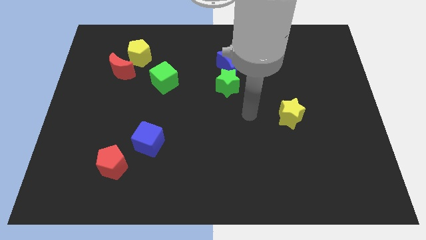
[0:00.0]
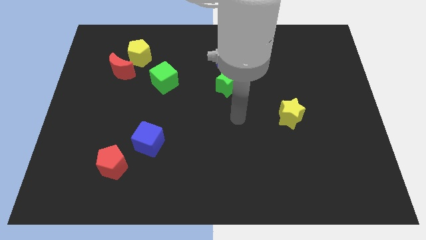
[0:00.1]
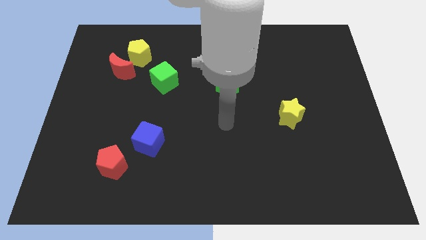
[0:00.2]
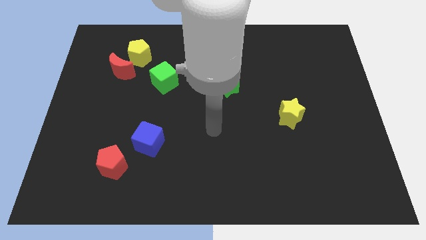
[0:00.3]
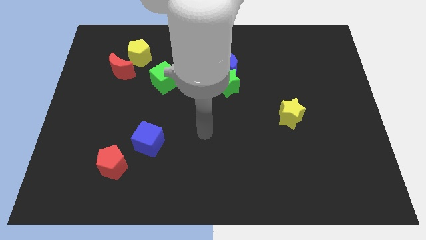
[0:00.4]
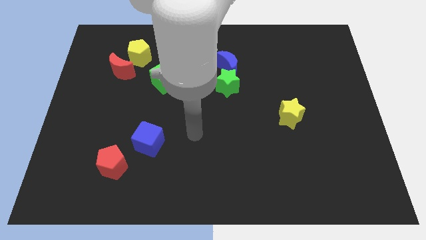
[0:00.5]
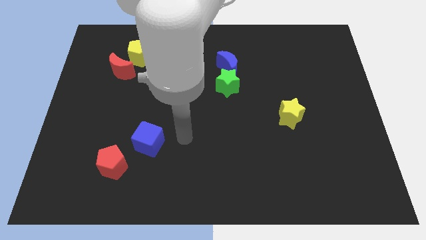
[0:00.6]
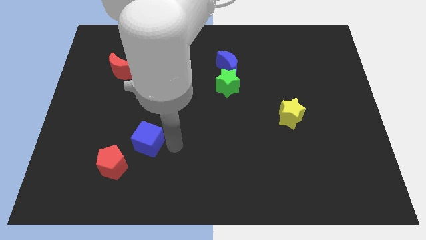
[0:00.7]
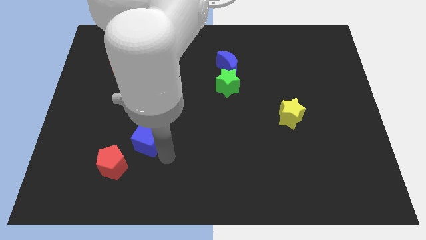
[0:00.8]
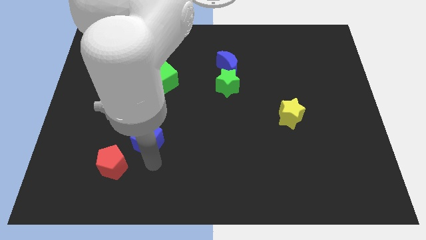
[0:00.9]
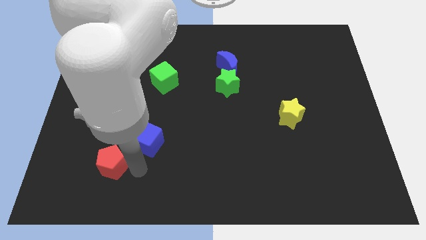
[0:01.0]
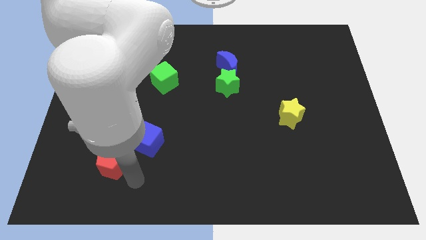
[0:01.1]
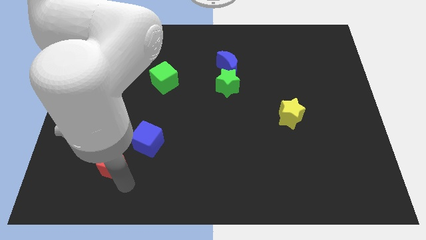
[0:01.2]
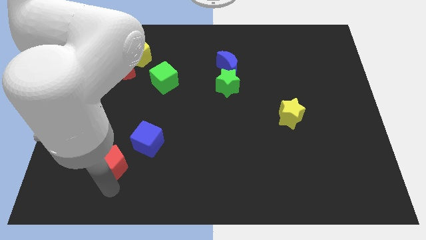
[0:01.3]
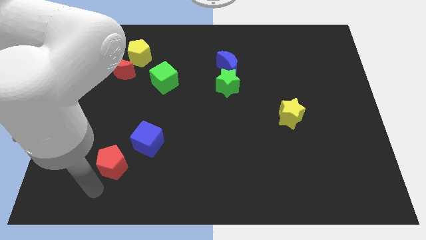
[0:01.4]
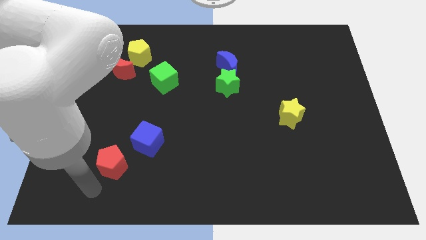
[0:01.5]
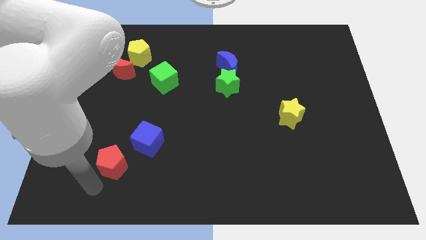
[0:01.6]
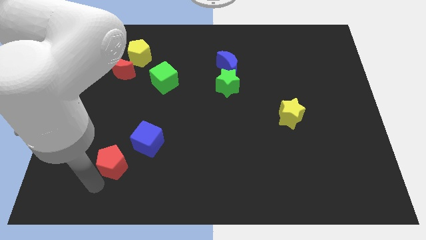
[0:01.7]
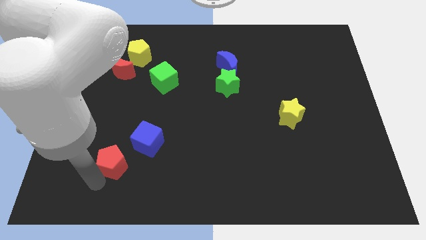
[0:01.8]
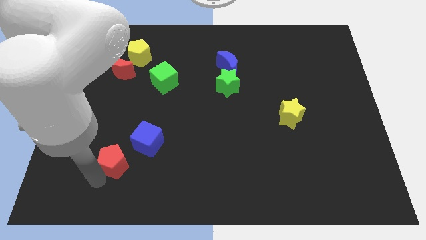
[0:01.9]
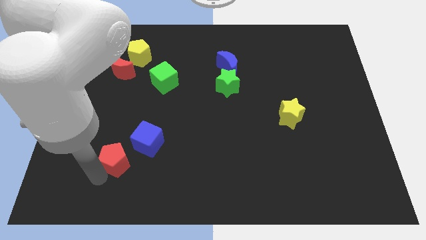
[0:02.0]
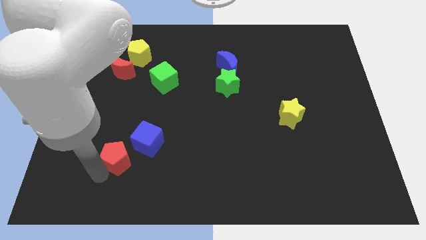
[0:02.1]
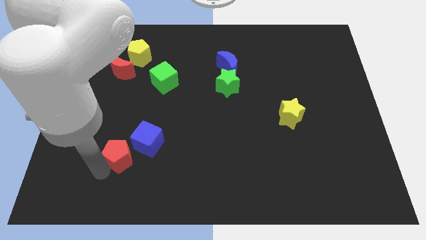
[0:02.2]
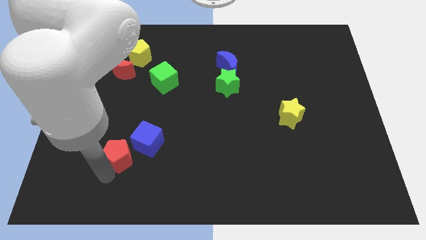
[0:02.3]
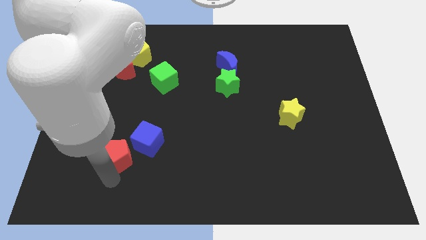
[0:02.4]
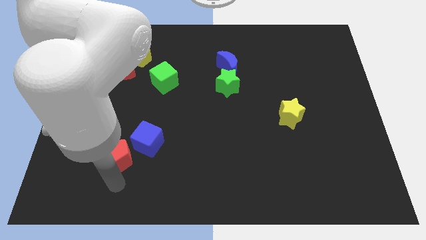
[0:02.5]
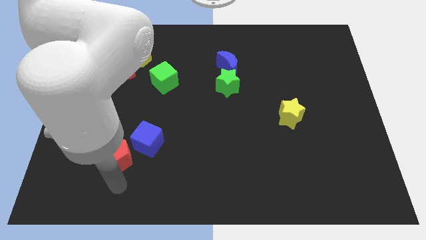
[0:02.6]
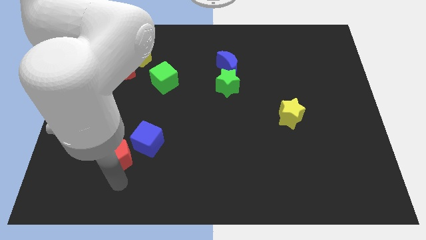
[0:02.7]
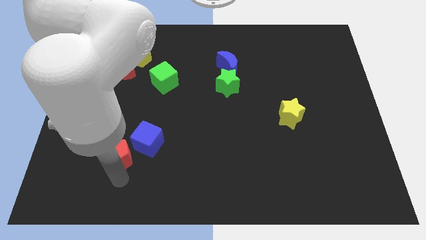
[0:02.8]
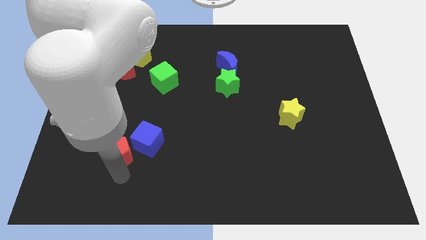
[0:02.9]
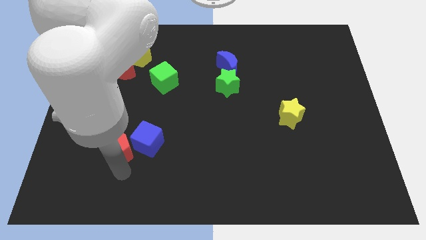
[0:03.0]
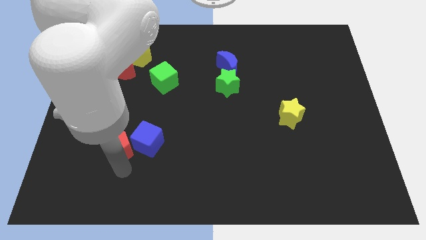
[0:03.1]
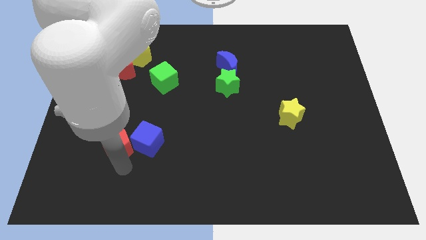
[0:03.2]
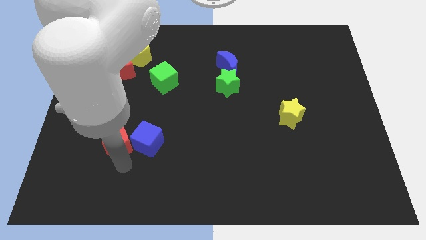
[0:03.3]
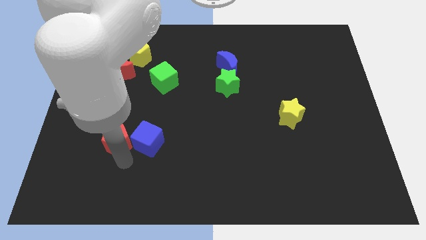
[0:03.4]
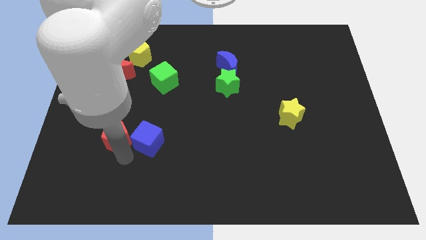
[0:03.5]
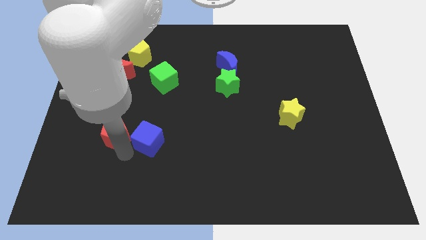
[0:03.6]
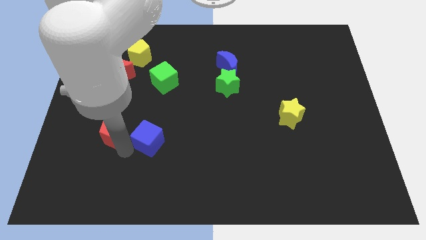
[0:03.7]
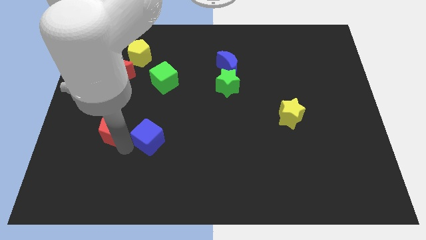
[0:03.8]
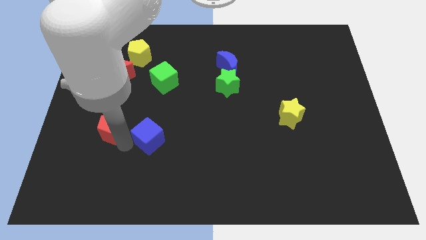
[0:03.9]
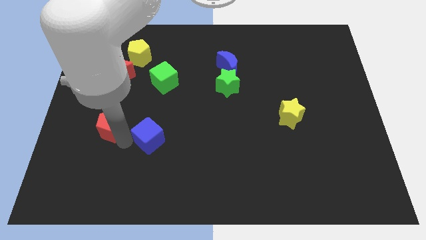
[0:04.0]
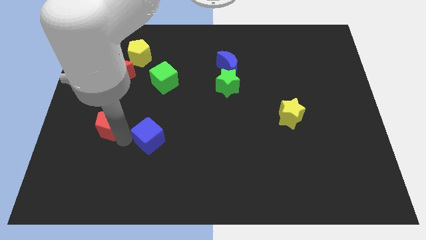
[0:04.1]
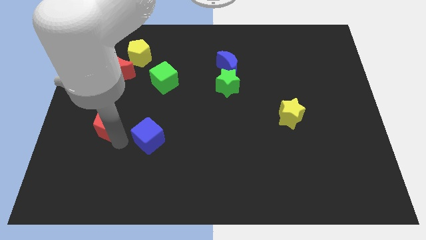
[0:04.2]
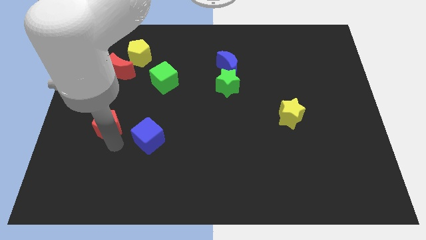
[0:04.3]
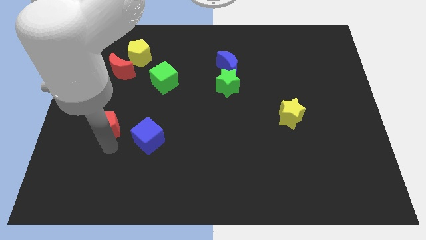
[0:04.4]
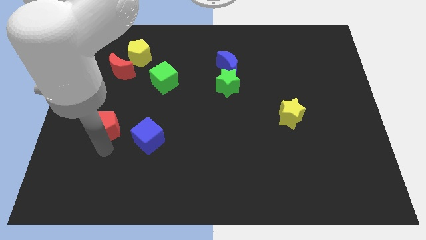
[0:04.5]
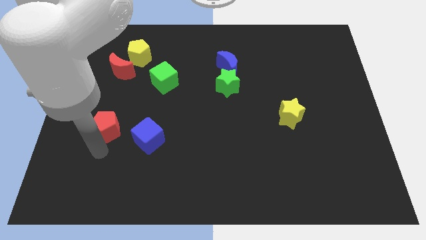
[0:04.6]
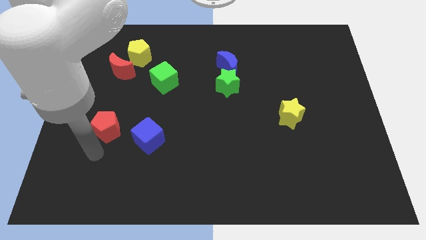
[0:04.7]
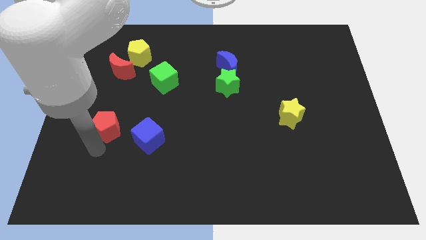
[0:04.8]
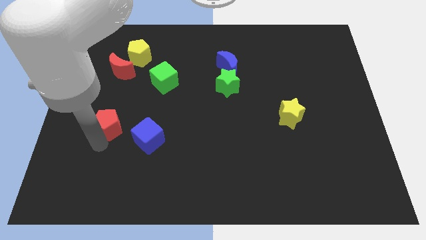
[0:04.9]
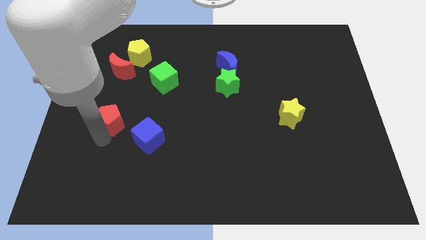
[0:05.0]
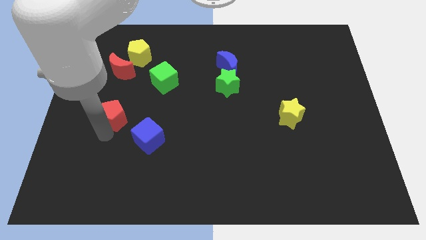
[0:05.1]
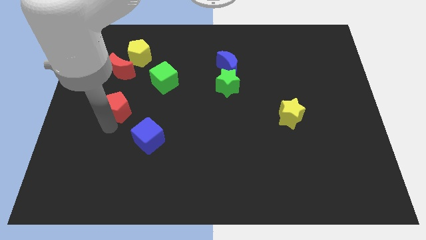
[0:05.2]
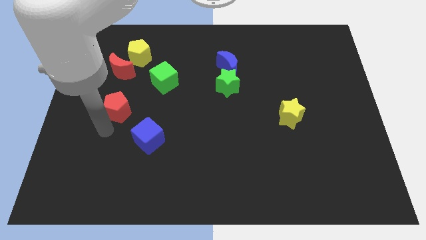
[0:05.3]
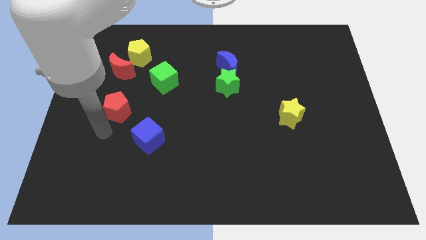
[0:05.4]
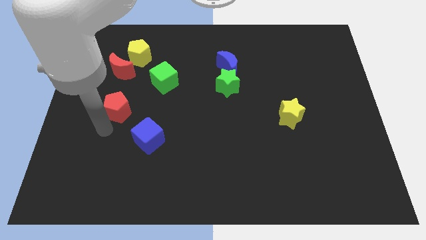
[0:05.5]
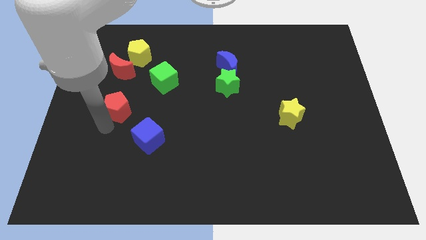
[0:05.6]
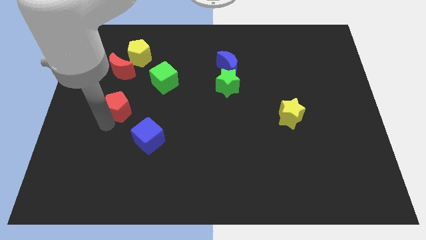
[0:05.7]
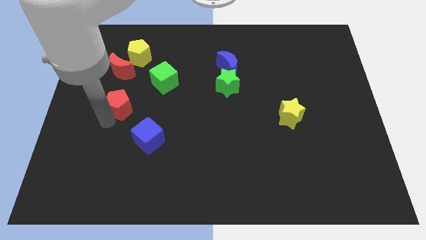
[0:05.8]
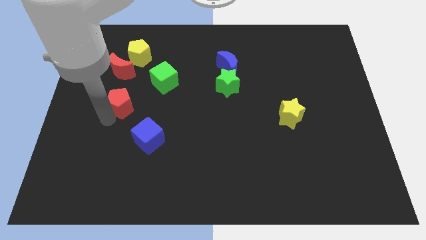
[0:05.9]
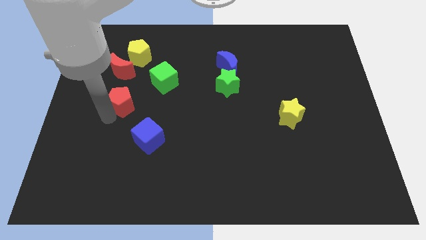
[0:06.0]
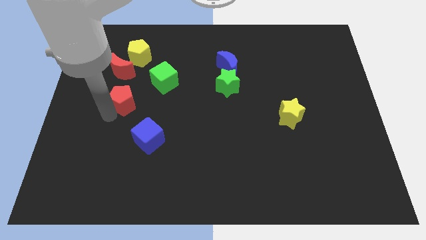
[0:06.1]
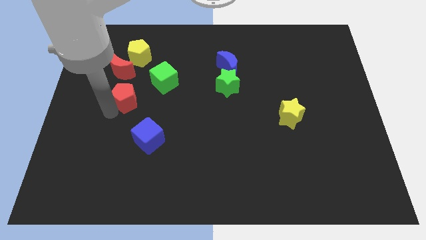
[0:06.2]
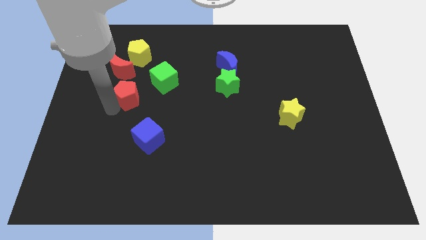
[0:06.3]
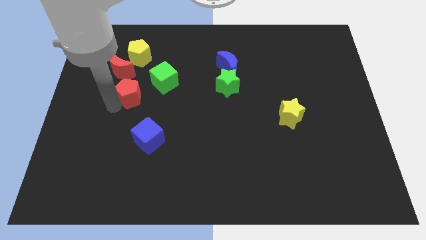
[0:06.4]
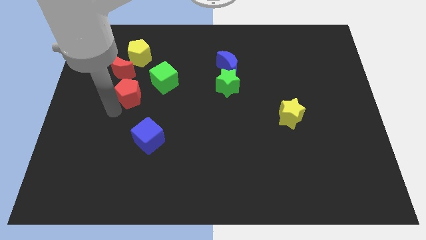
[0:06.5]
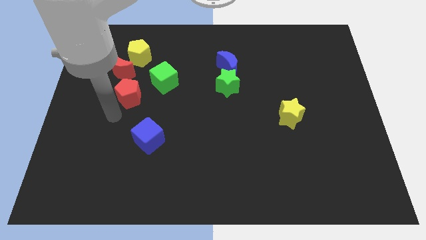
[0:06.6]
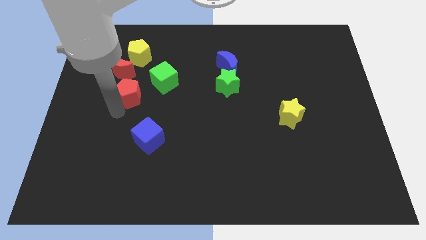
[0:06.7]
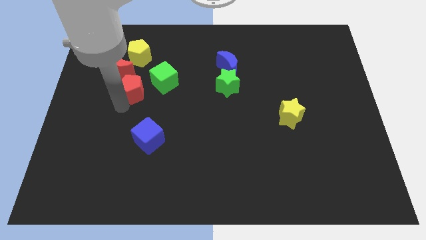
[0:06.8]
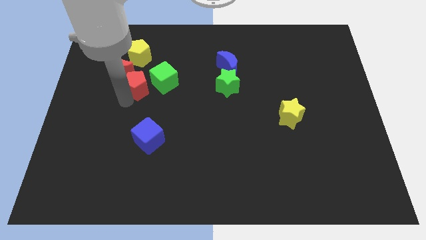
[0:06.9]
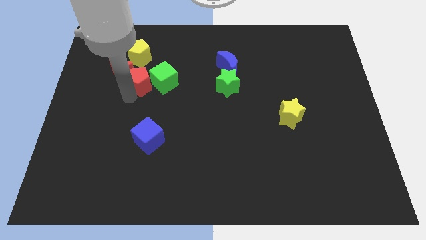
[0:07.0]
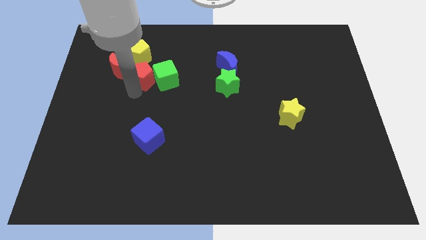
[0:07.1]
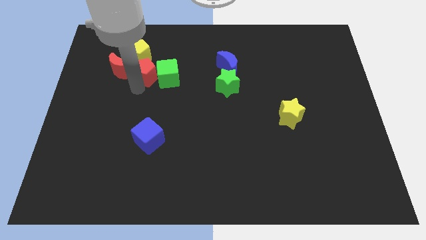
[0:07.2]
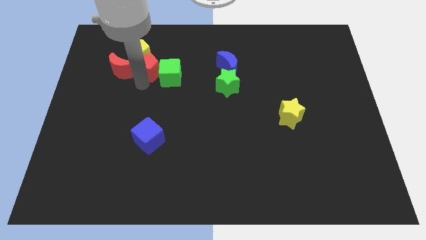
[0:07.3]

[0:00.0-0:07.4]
slide the red pentagon next to the yellow pentagon
